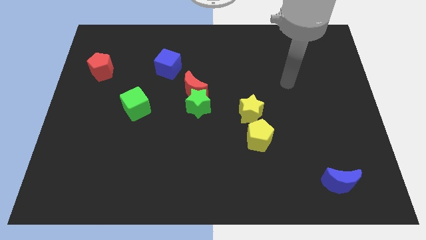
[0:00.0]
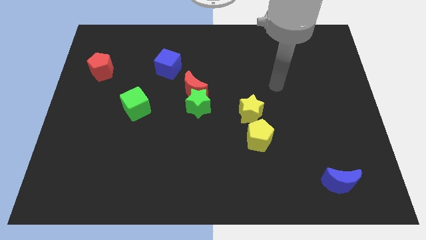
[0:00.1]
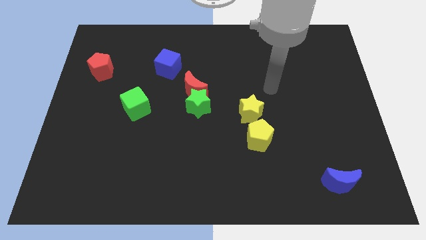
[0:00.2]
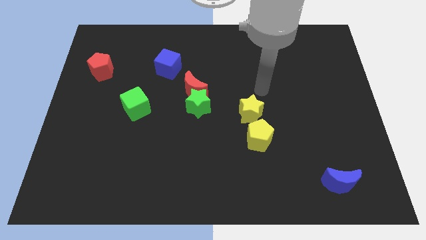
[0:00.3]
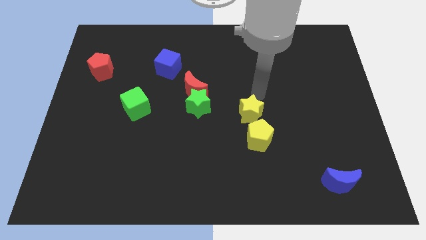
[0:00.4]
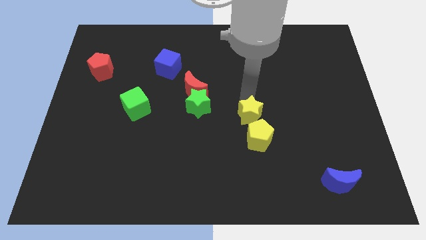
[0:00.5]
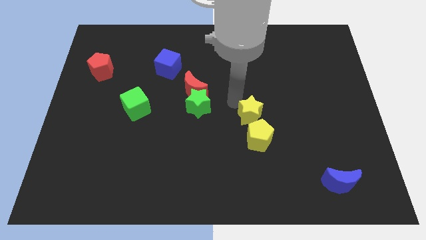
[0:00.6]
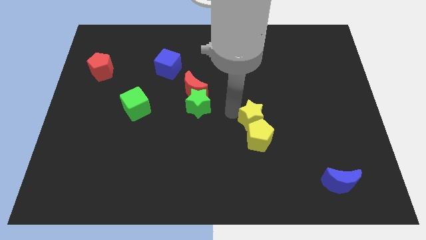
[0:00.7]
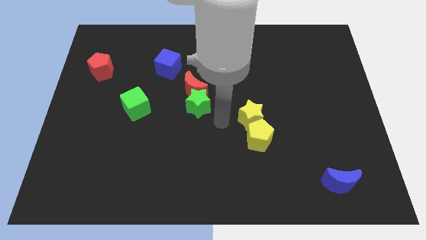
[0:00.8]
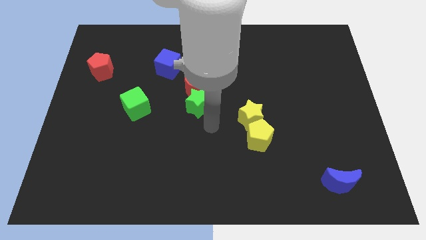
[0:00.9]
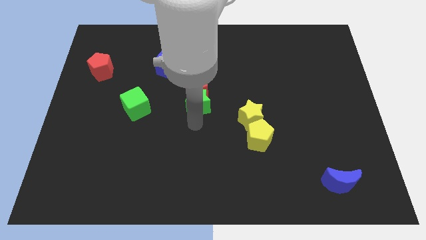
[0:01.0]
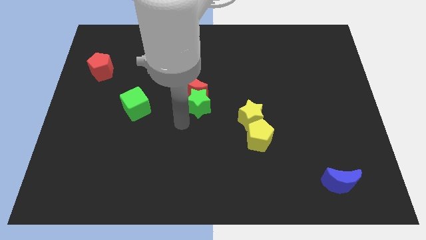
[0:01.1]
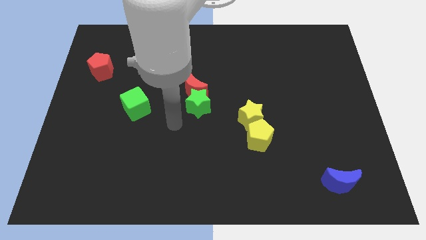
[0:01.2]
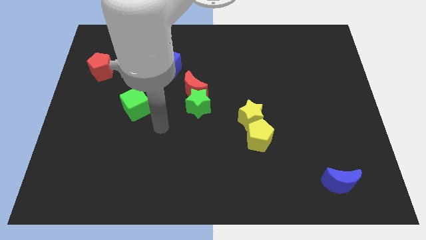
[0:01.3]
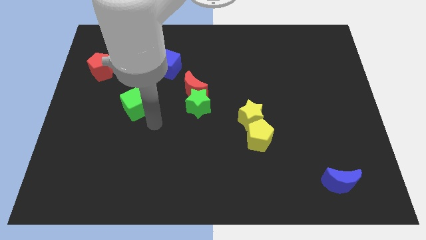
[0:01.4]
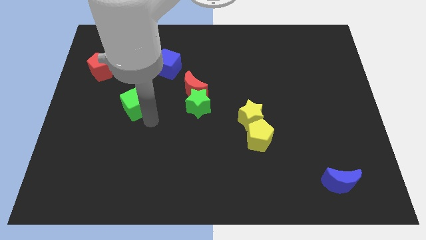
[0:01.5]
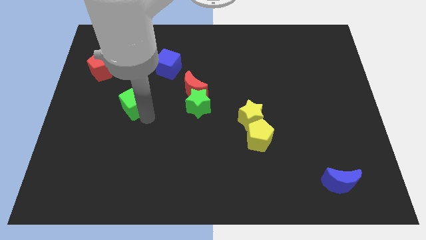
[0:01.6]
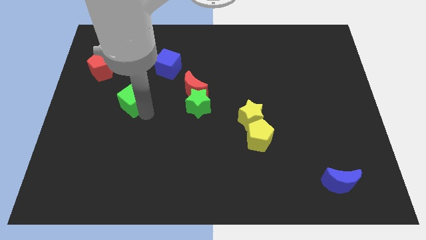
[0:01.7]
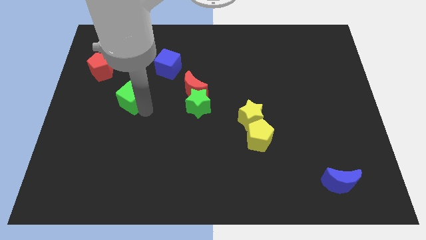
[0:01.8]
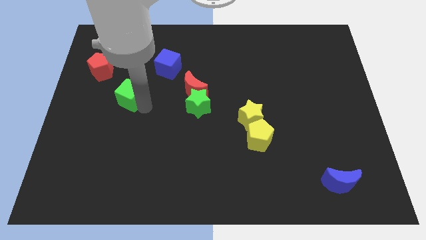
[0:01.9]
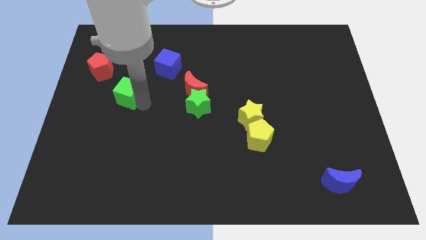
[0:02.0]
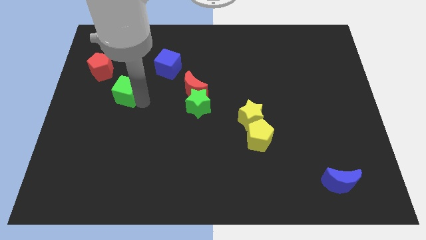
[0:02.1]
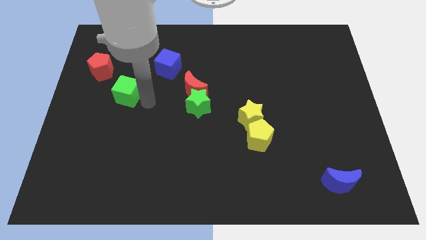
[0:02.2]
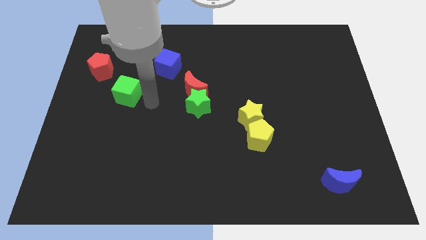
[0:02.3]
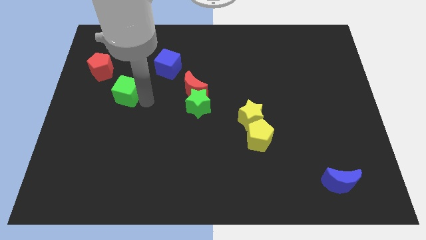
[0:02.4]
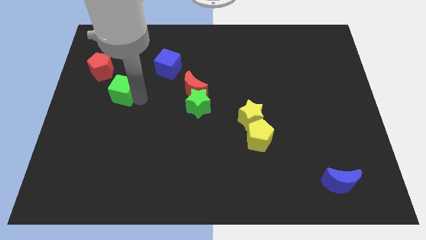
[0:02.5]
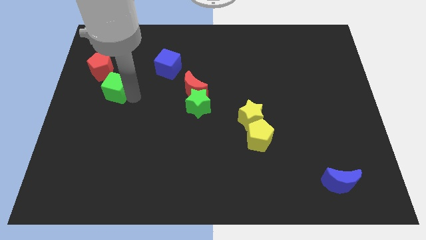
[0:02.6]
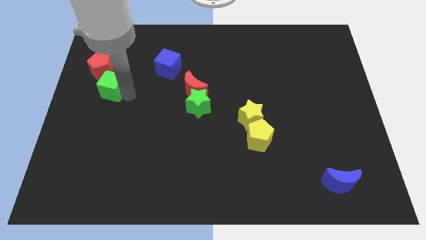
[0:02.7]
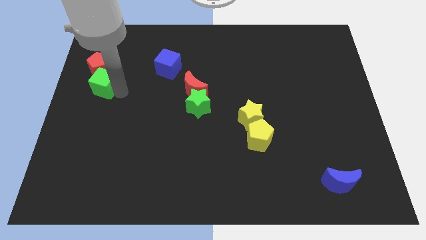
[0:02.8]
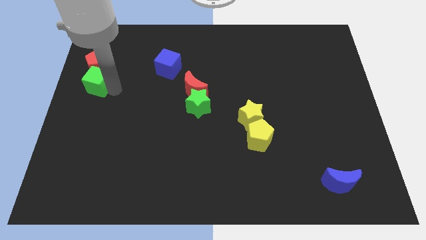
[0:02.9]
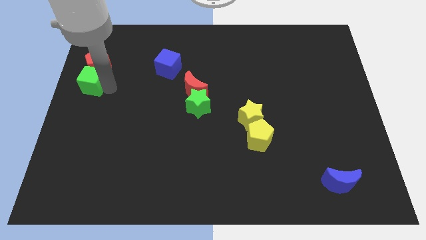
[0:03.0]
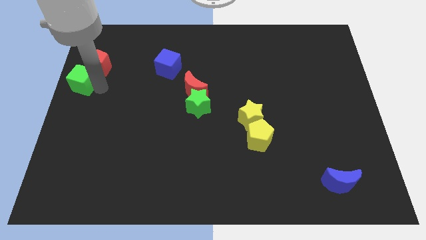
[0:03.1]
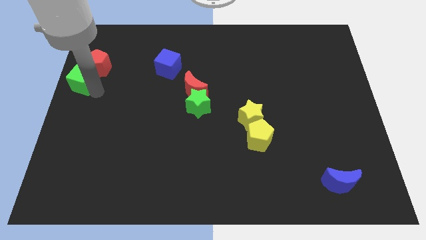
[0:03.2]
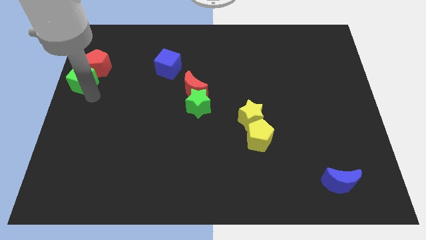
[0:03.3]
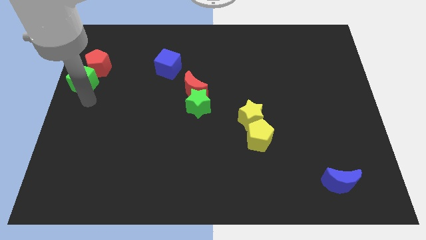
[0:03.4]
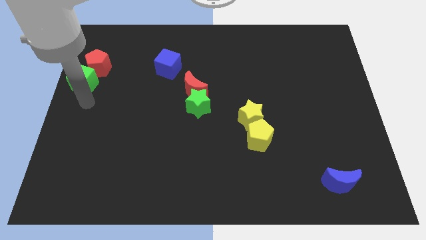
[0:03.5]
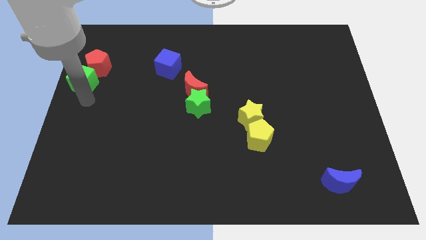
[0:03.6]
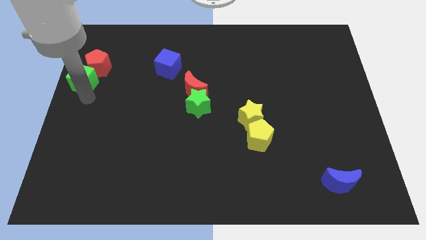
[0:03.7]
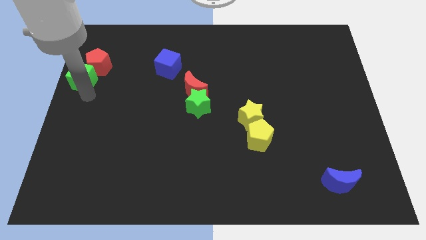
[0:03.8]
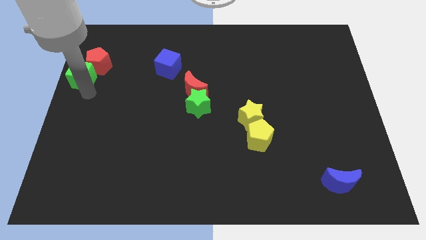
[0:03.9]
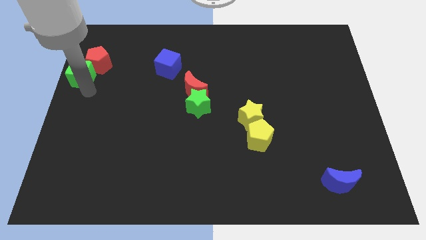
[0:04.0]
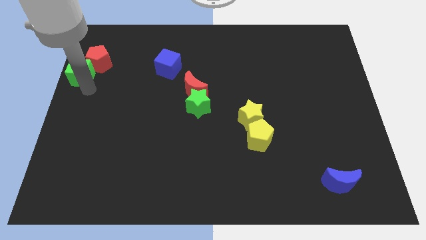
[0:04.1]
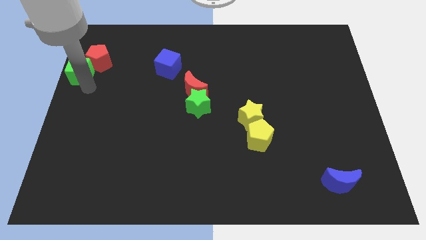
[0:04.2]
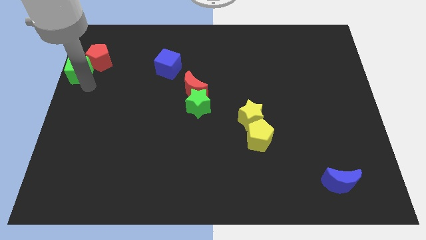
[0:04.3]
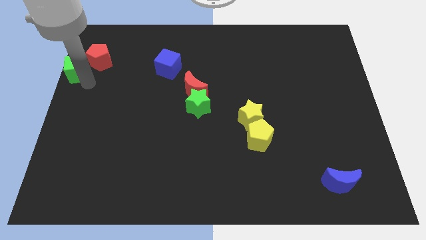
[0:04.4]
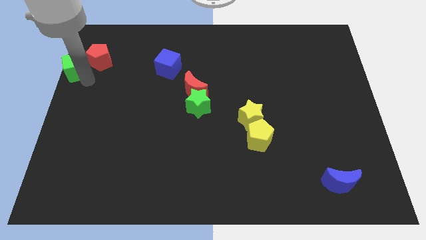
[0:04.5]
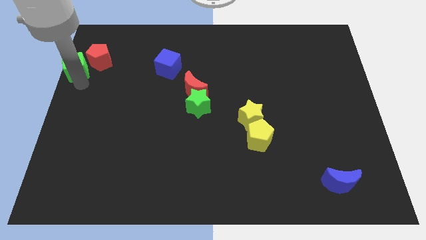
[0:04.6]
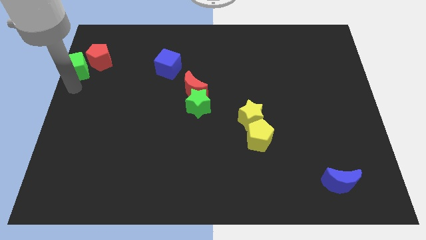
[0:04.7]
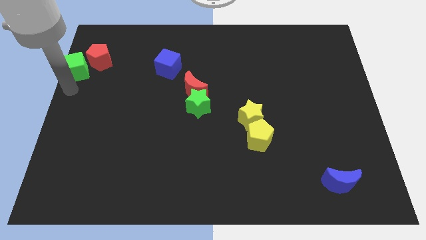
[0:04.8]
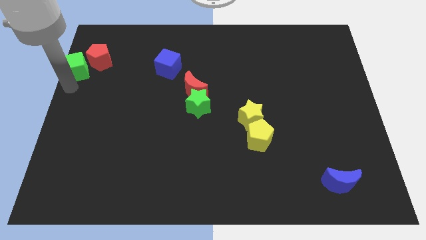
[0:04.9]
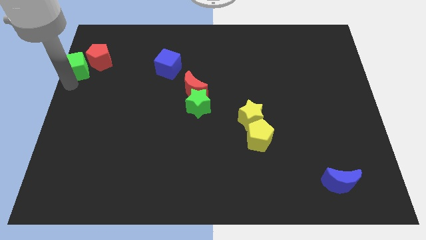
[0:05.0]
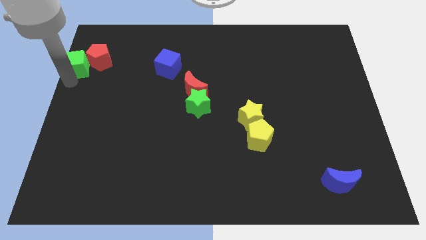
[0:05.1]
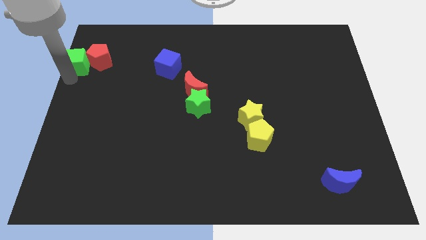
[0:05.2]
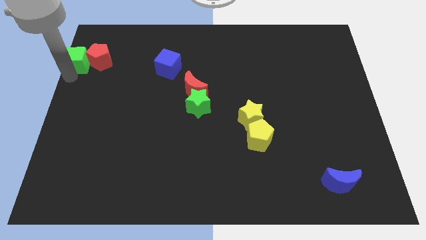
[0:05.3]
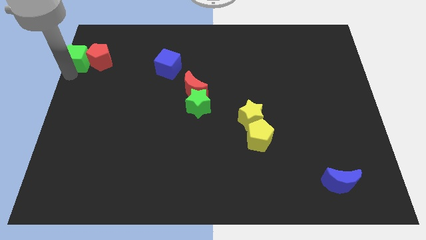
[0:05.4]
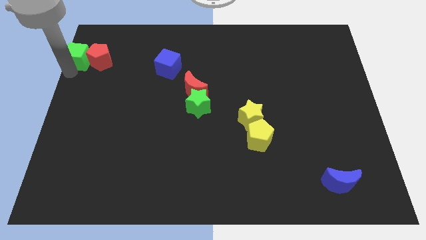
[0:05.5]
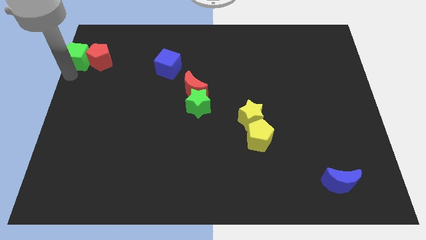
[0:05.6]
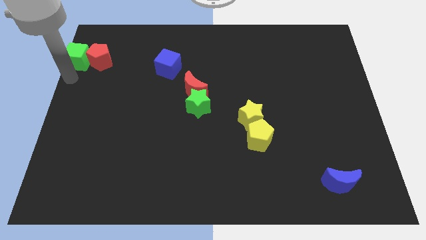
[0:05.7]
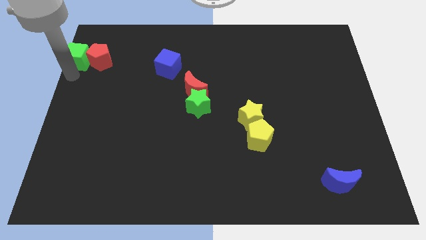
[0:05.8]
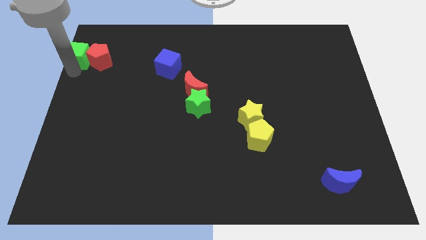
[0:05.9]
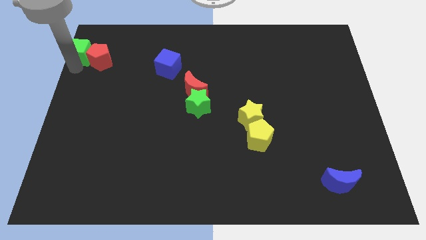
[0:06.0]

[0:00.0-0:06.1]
slide the green cube to the upper left corner

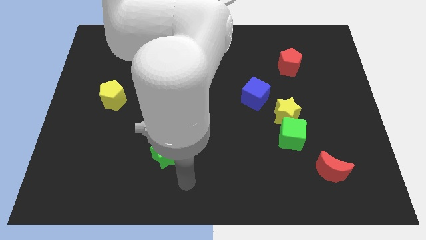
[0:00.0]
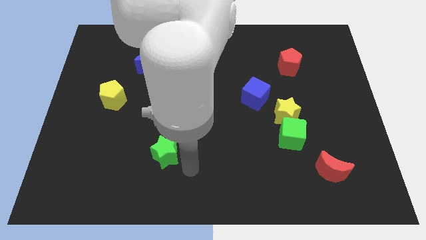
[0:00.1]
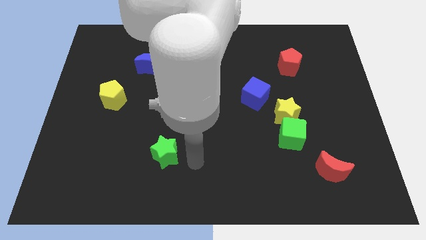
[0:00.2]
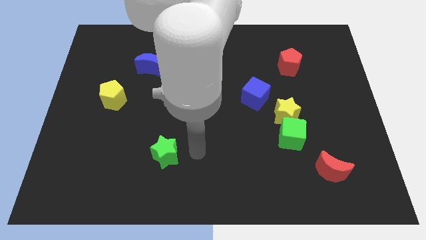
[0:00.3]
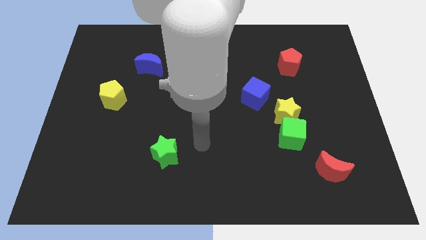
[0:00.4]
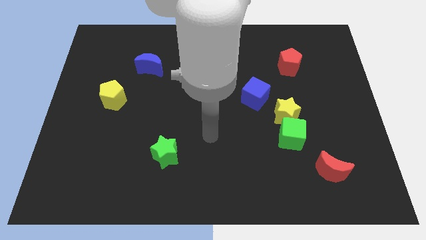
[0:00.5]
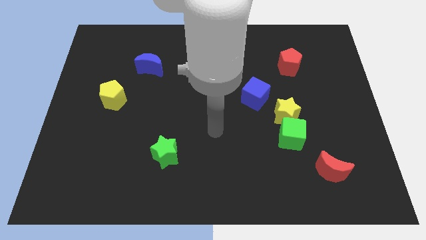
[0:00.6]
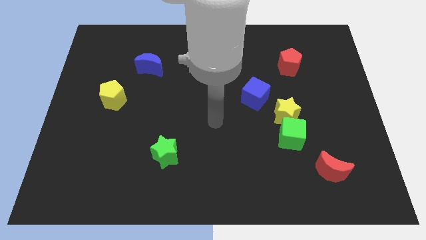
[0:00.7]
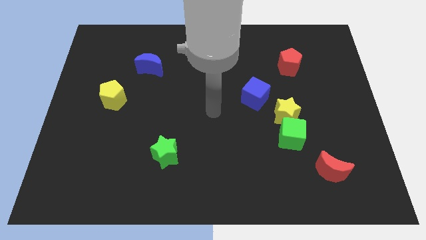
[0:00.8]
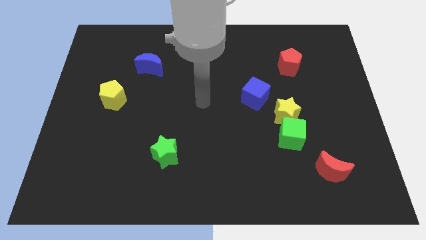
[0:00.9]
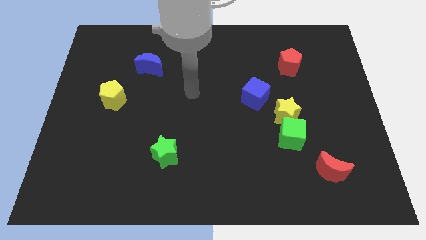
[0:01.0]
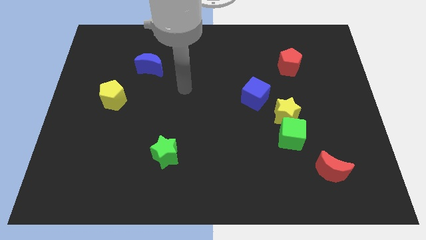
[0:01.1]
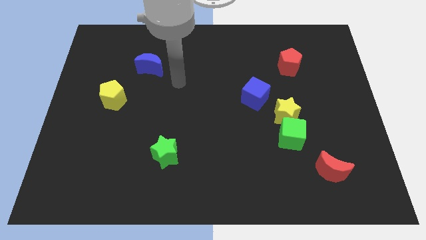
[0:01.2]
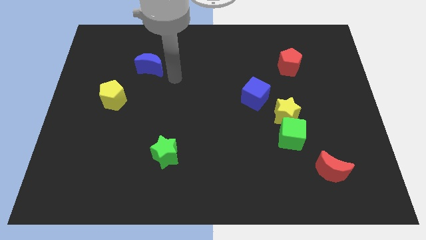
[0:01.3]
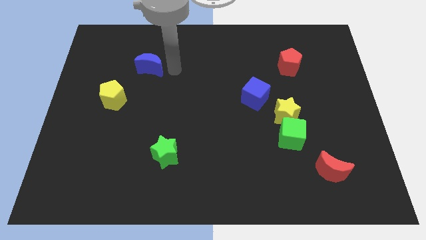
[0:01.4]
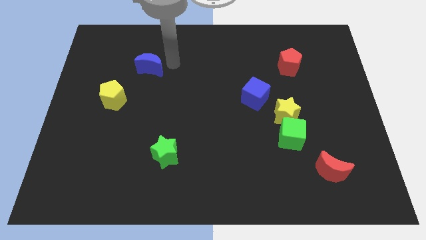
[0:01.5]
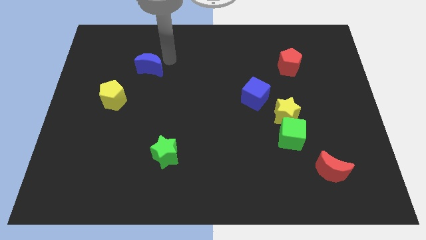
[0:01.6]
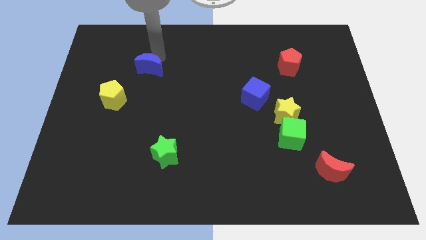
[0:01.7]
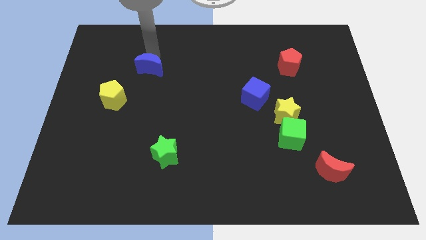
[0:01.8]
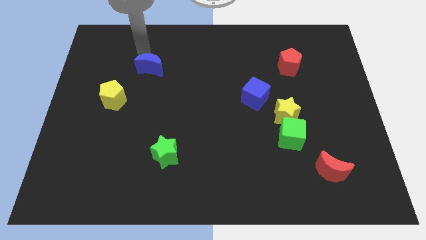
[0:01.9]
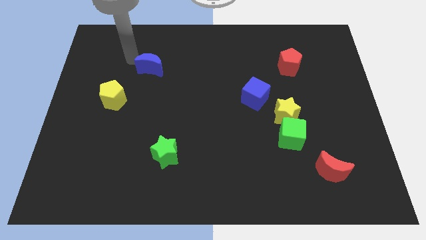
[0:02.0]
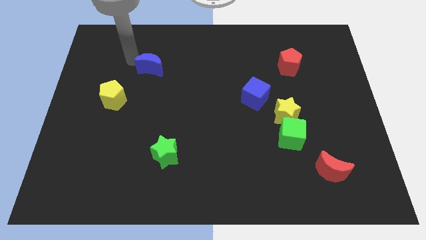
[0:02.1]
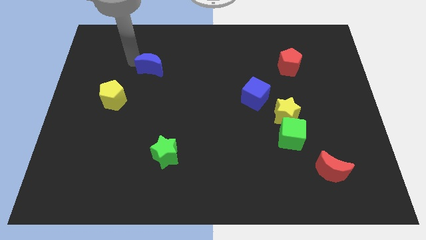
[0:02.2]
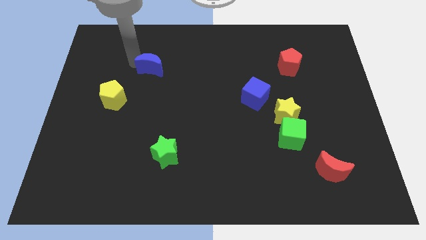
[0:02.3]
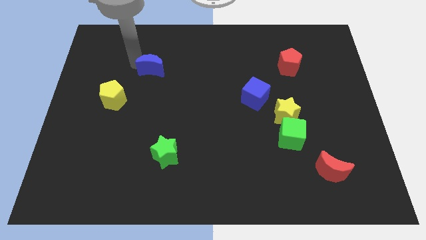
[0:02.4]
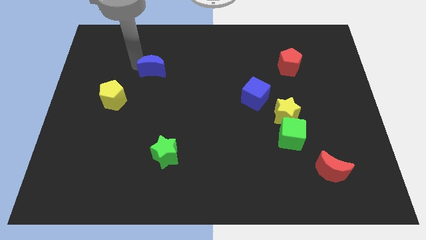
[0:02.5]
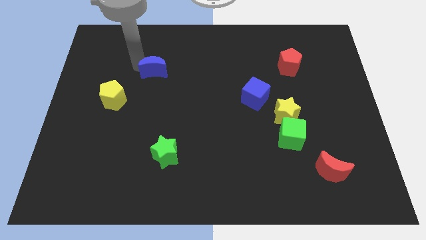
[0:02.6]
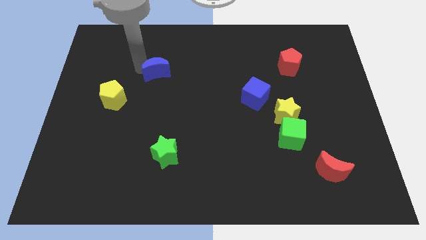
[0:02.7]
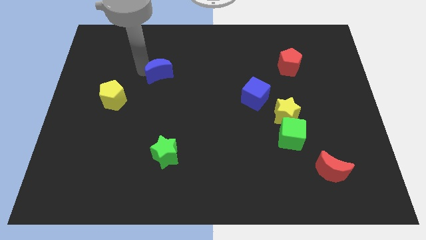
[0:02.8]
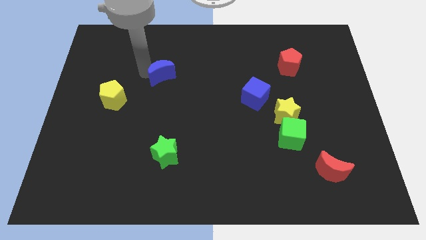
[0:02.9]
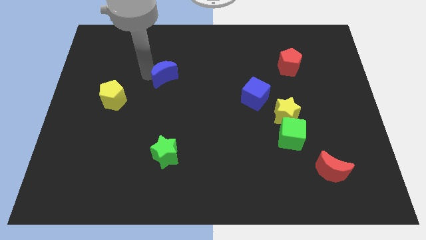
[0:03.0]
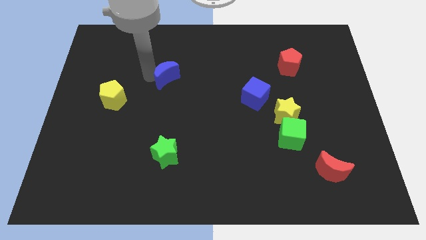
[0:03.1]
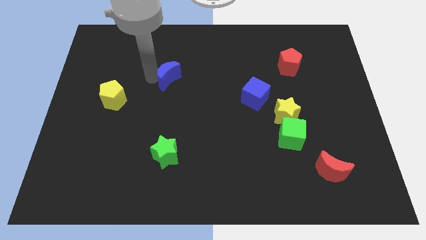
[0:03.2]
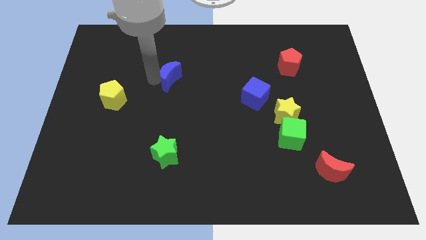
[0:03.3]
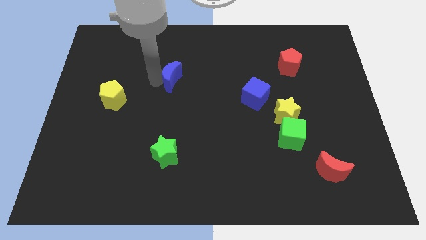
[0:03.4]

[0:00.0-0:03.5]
move the blue moon to the middle of the board
